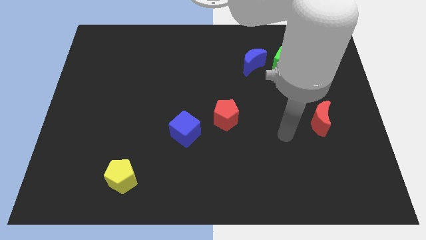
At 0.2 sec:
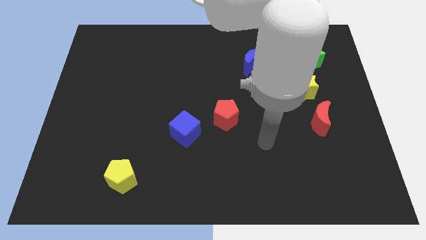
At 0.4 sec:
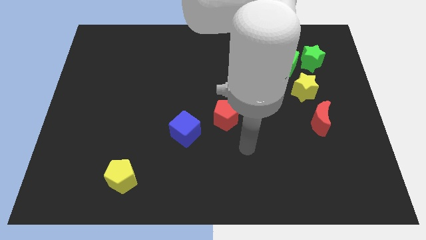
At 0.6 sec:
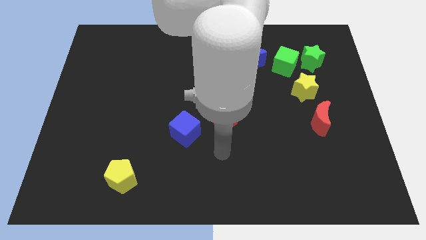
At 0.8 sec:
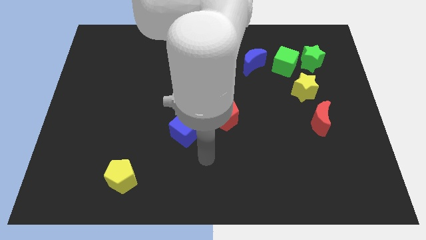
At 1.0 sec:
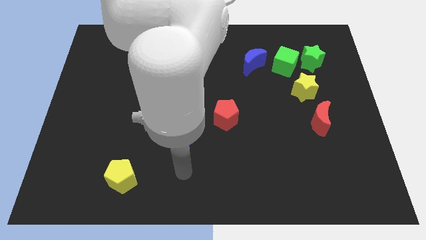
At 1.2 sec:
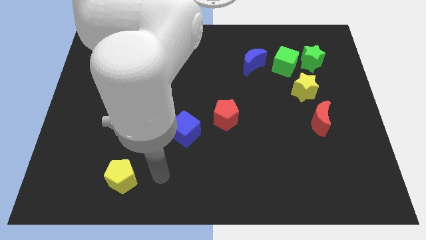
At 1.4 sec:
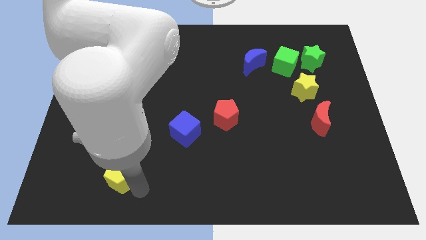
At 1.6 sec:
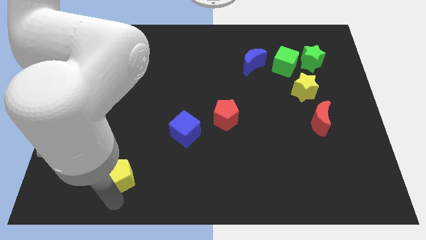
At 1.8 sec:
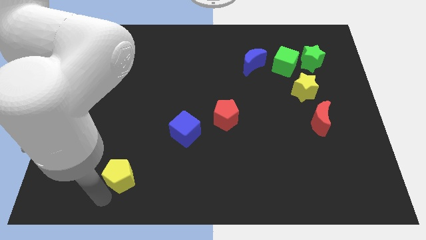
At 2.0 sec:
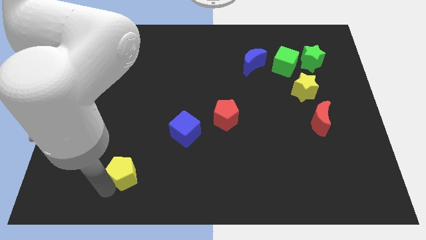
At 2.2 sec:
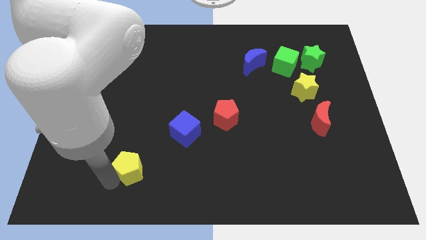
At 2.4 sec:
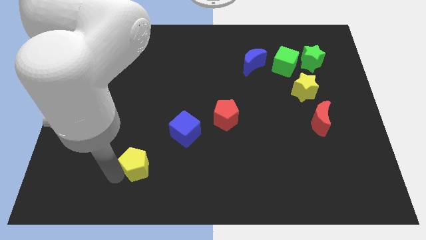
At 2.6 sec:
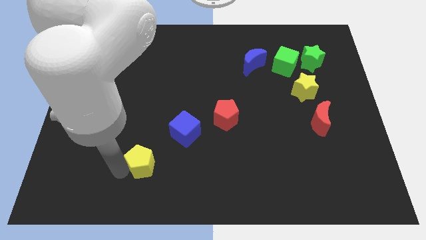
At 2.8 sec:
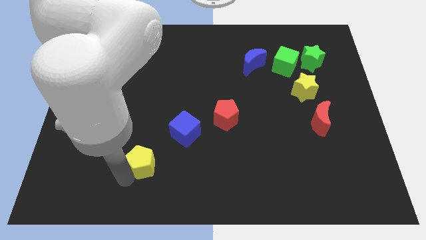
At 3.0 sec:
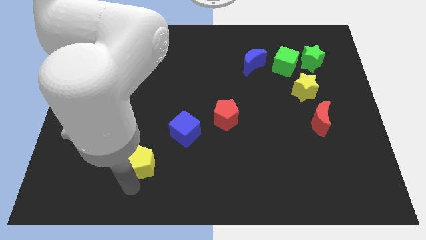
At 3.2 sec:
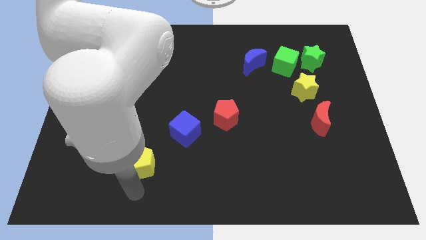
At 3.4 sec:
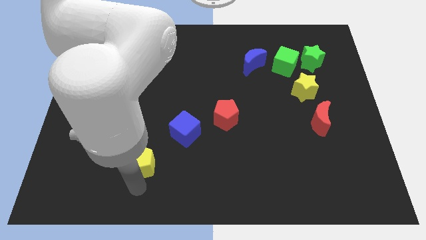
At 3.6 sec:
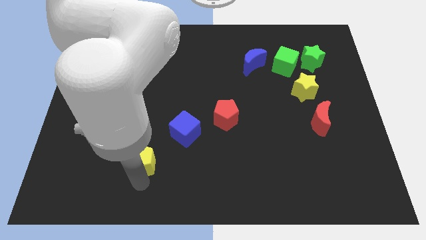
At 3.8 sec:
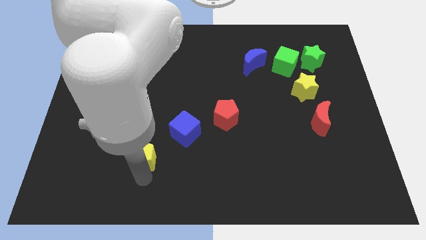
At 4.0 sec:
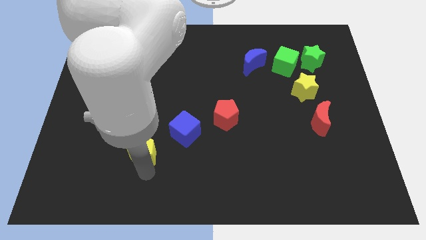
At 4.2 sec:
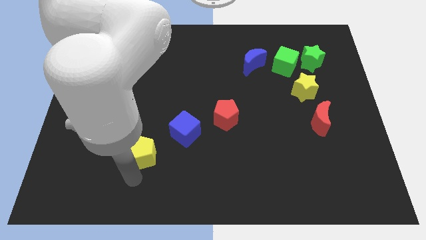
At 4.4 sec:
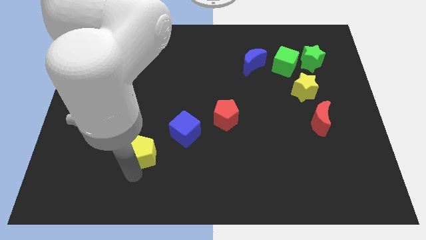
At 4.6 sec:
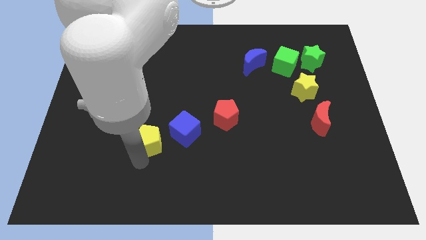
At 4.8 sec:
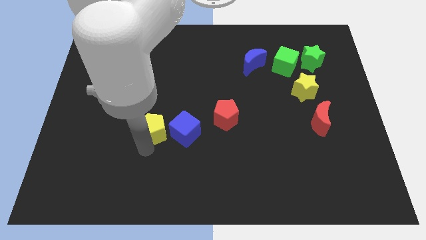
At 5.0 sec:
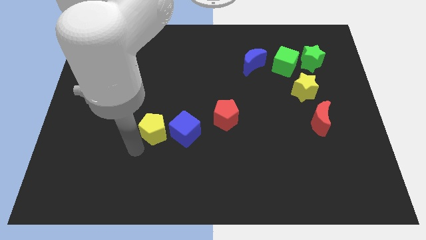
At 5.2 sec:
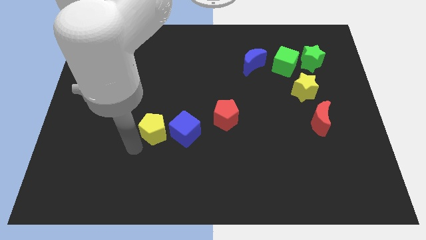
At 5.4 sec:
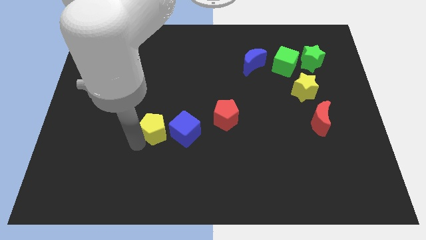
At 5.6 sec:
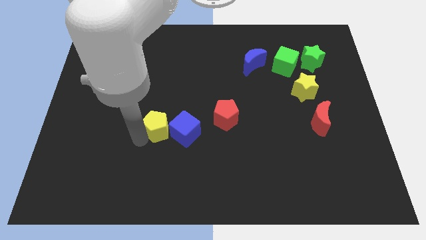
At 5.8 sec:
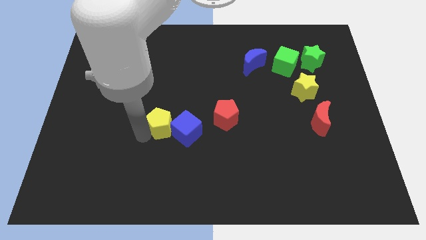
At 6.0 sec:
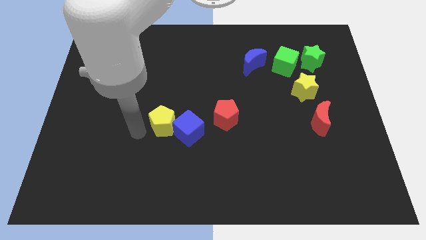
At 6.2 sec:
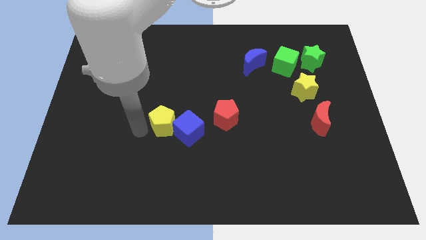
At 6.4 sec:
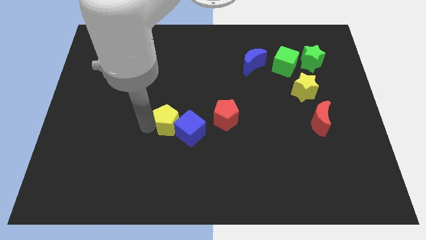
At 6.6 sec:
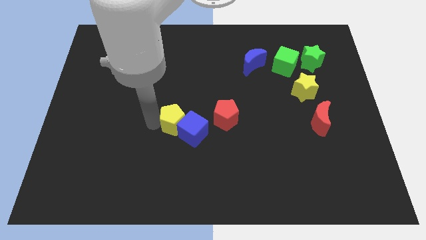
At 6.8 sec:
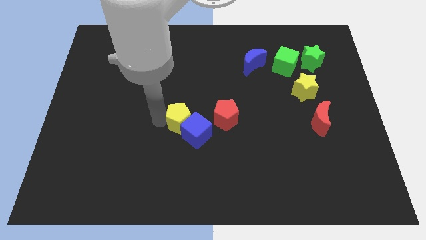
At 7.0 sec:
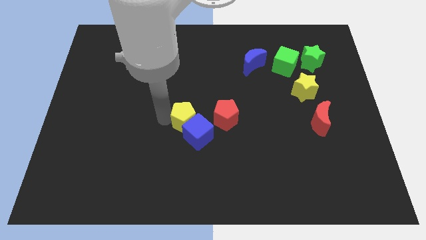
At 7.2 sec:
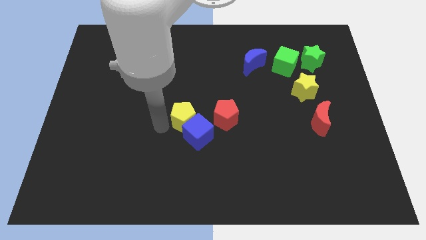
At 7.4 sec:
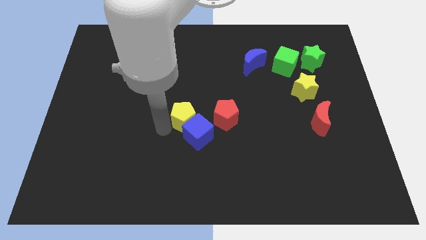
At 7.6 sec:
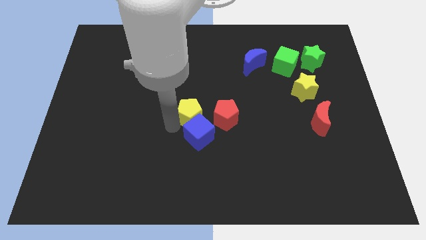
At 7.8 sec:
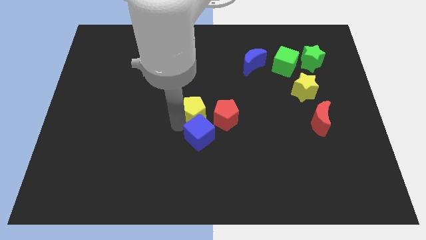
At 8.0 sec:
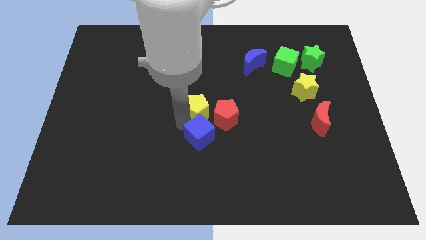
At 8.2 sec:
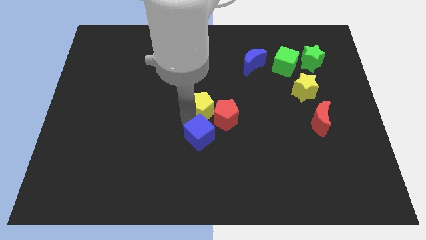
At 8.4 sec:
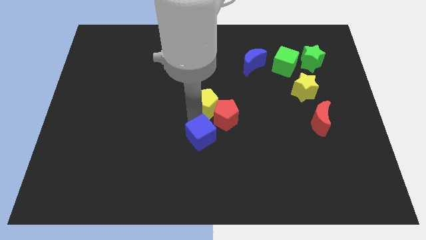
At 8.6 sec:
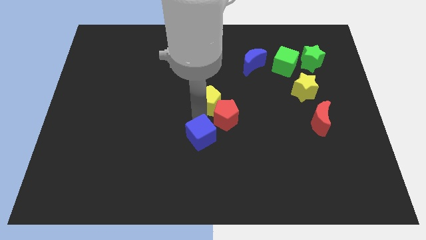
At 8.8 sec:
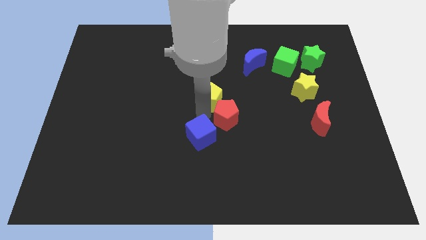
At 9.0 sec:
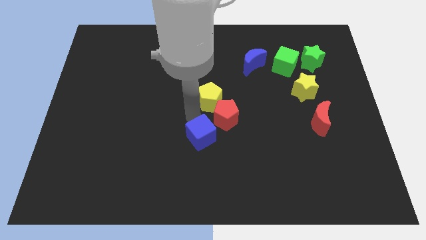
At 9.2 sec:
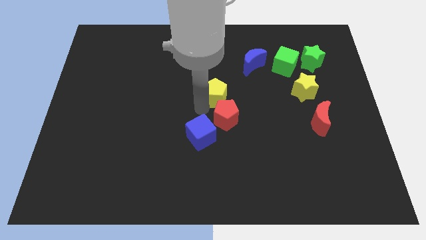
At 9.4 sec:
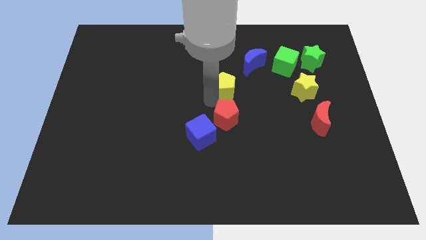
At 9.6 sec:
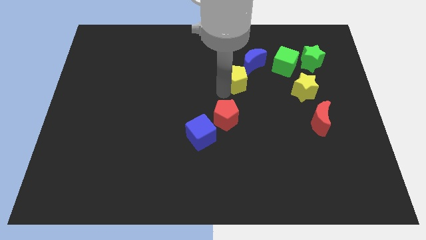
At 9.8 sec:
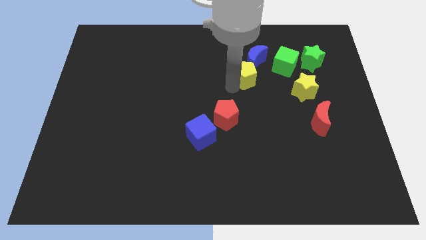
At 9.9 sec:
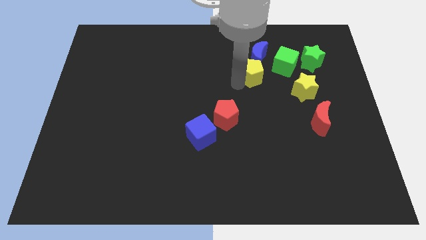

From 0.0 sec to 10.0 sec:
slide the yellow pentagon to the blue moon

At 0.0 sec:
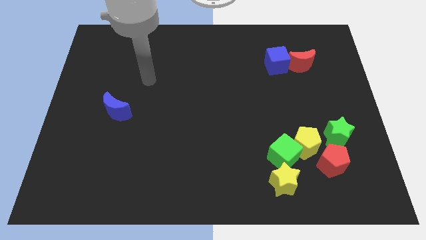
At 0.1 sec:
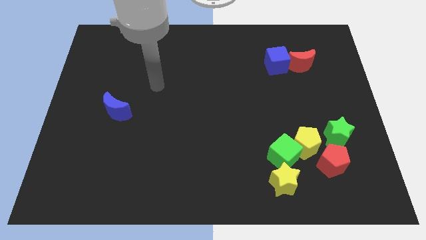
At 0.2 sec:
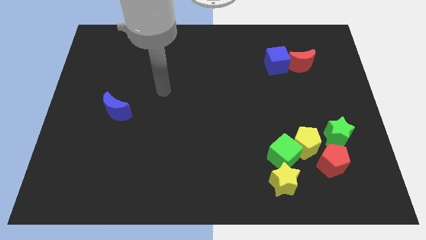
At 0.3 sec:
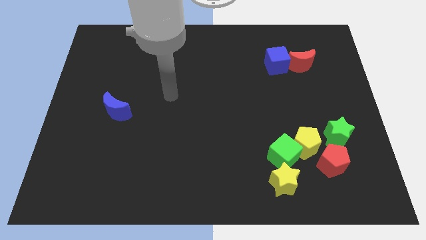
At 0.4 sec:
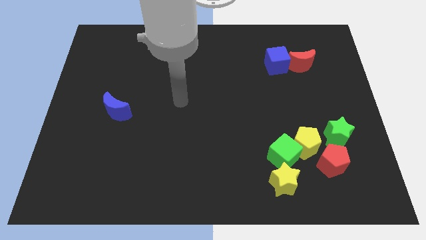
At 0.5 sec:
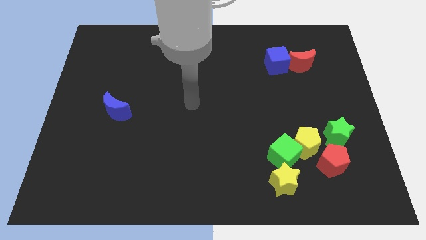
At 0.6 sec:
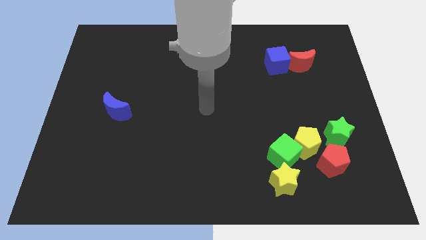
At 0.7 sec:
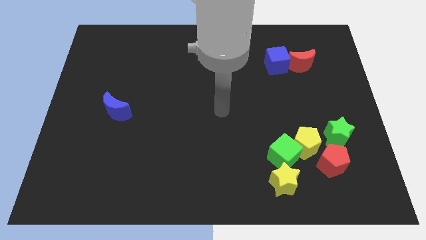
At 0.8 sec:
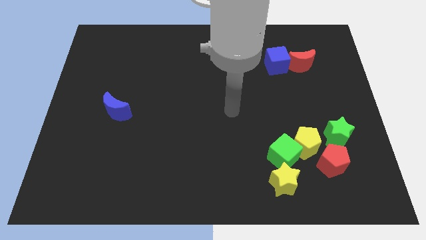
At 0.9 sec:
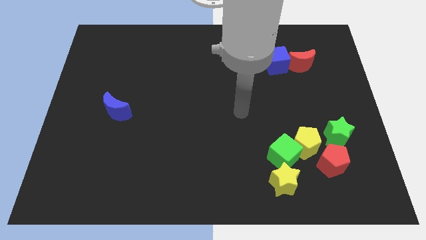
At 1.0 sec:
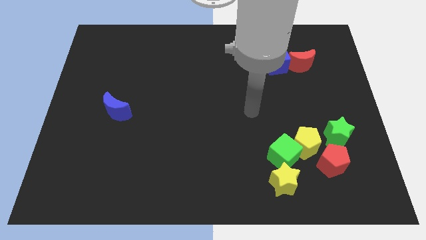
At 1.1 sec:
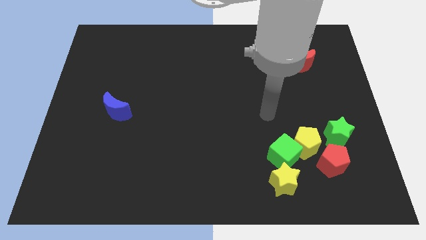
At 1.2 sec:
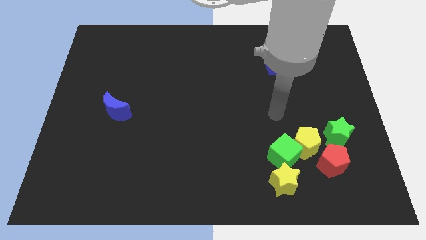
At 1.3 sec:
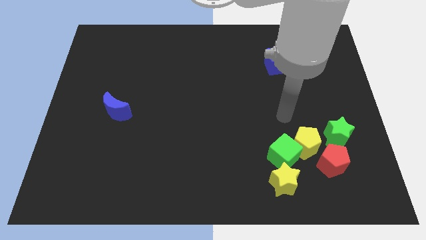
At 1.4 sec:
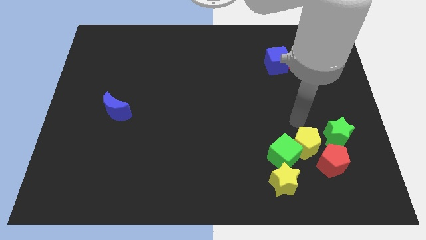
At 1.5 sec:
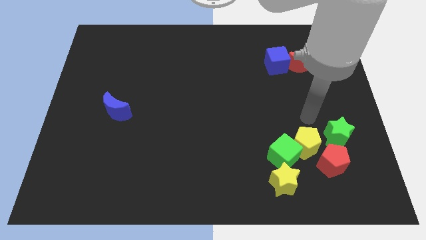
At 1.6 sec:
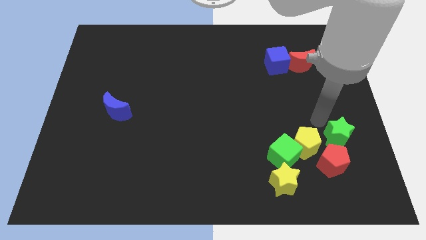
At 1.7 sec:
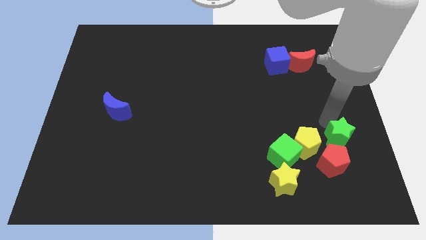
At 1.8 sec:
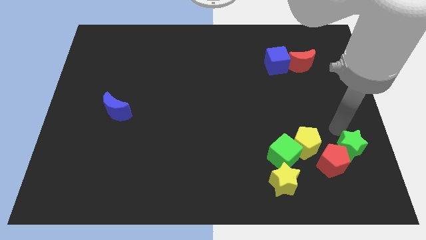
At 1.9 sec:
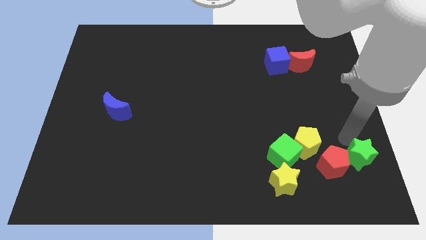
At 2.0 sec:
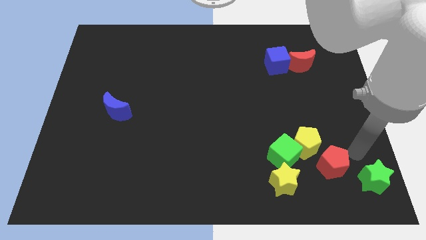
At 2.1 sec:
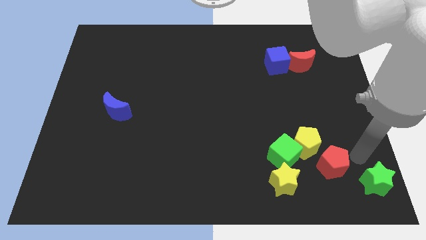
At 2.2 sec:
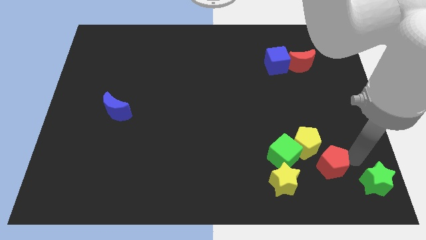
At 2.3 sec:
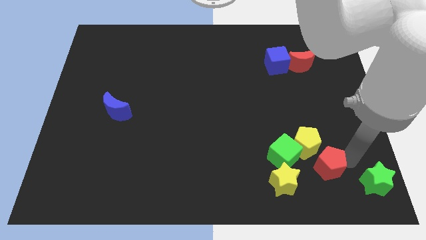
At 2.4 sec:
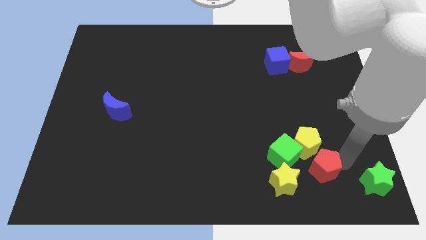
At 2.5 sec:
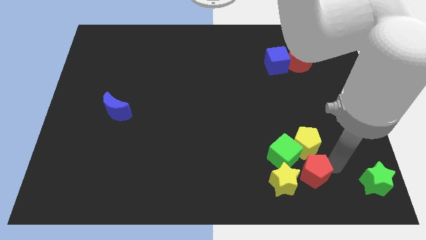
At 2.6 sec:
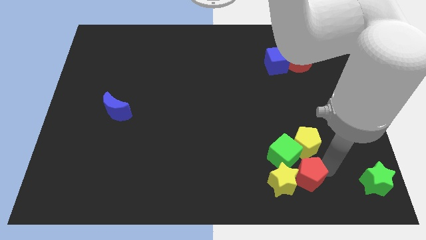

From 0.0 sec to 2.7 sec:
put the red pentagon to the yellow star
